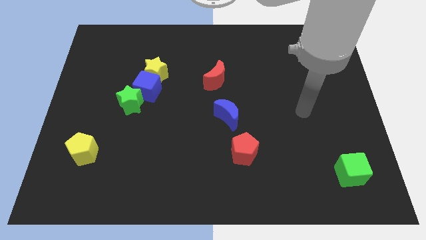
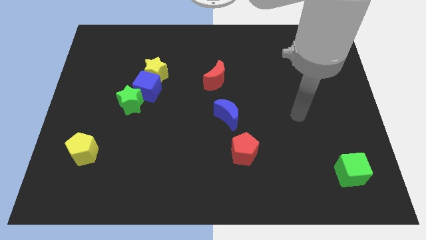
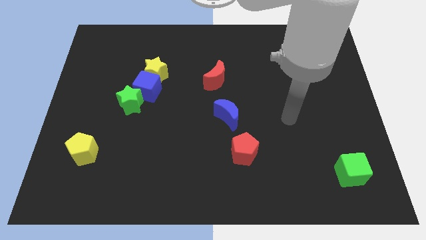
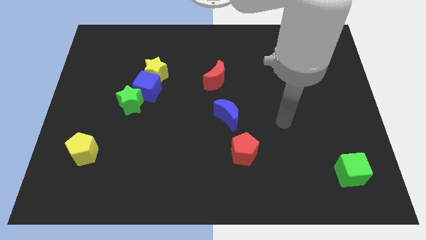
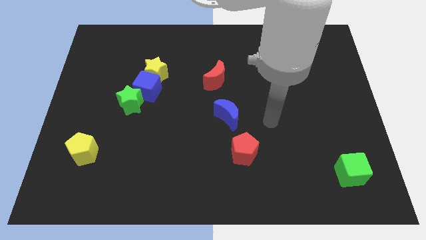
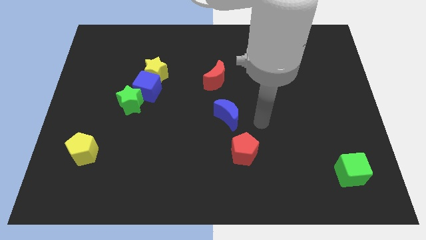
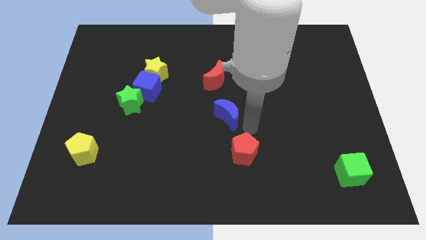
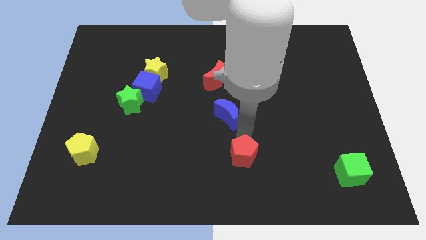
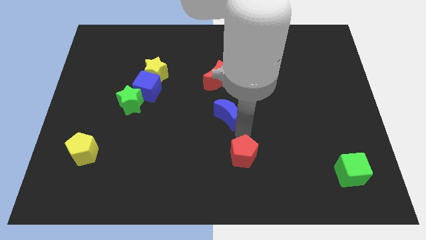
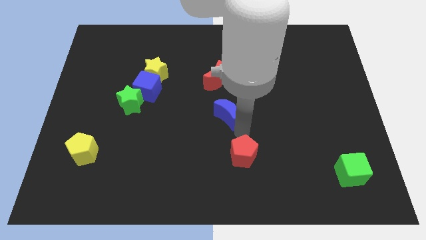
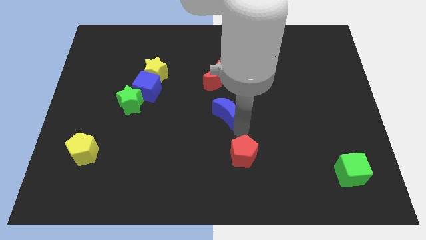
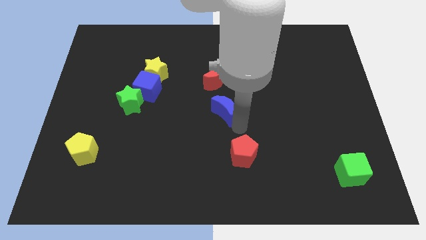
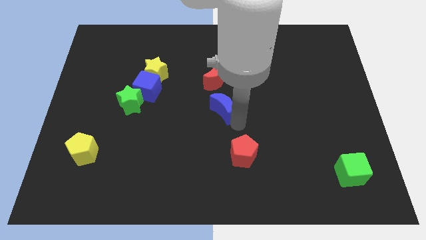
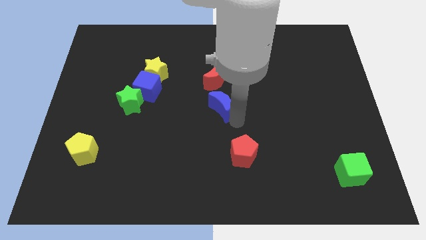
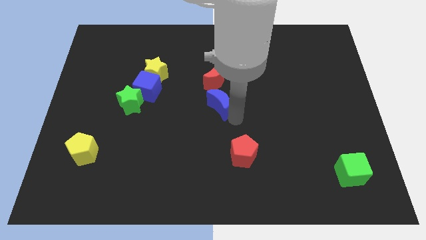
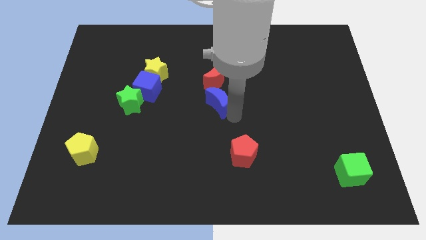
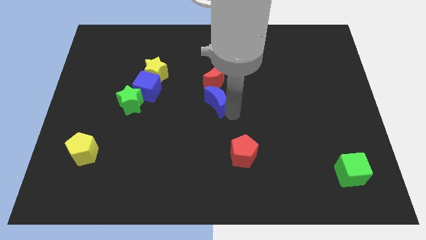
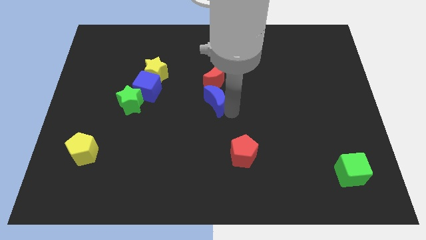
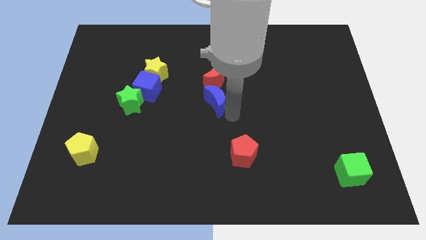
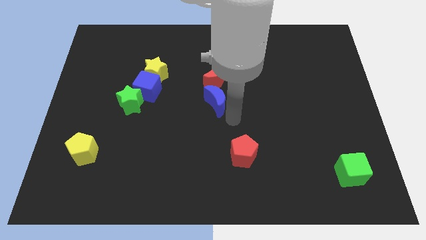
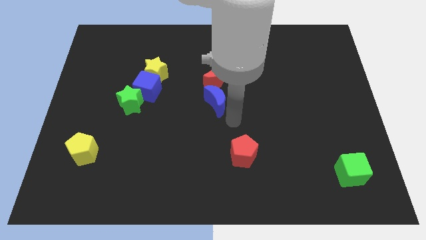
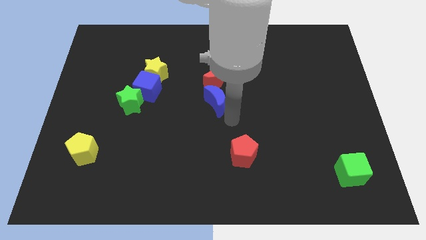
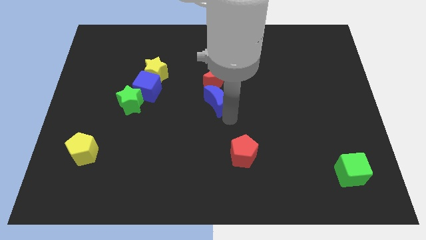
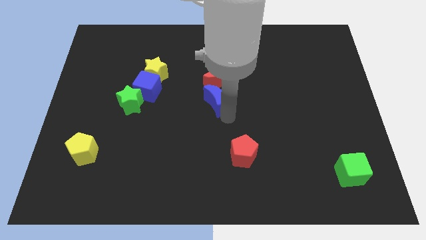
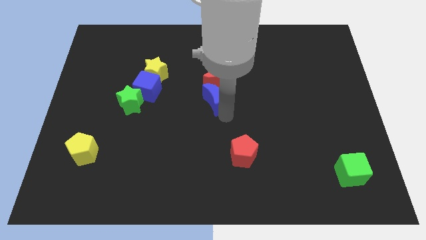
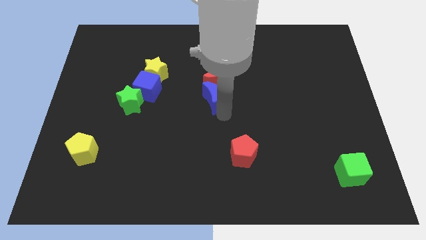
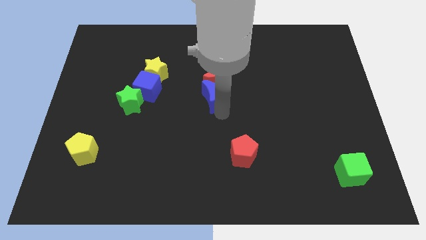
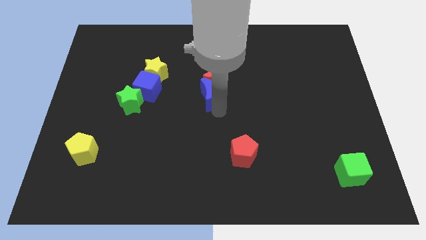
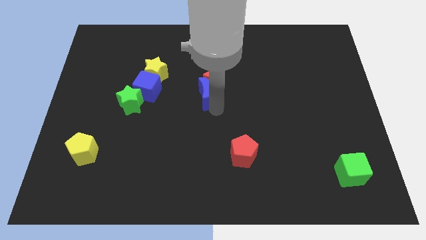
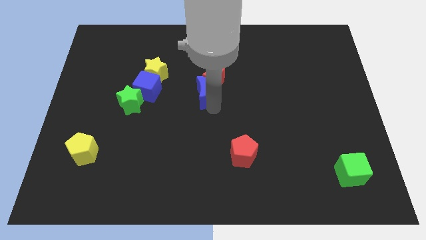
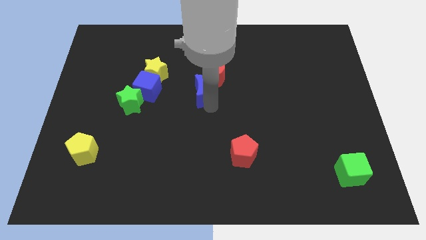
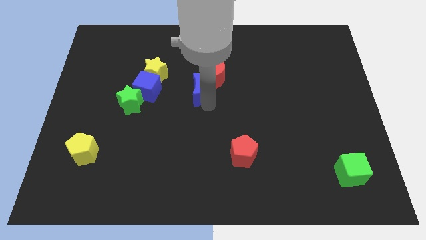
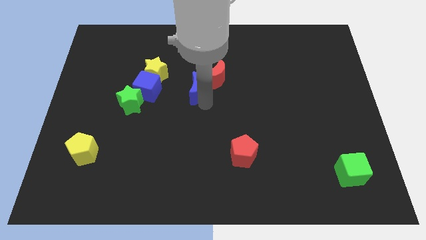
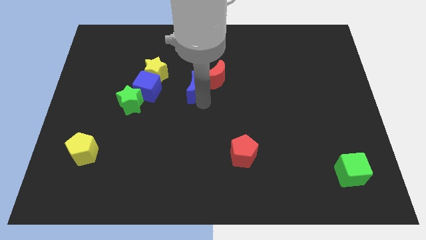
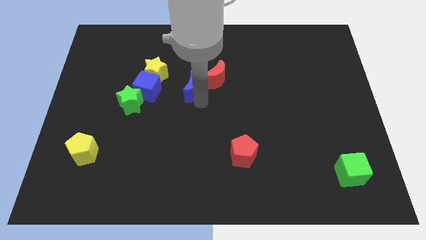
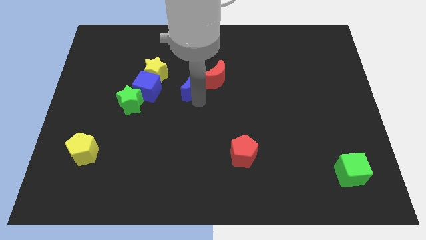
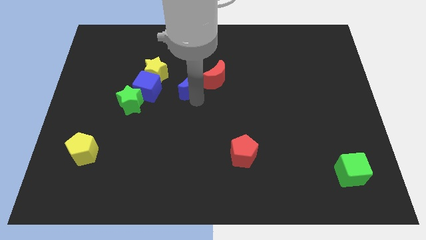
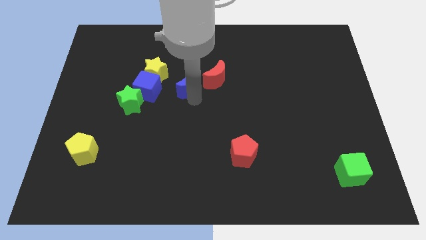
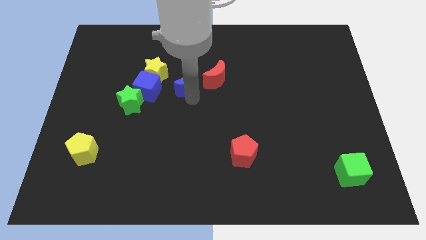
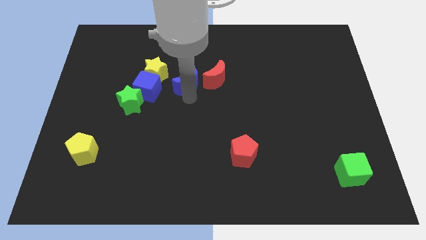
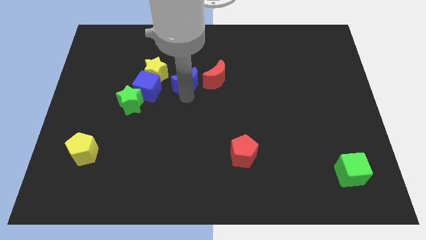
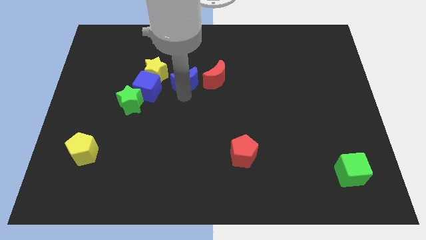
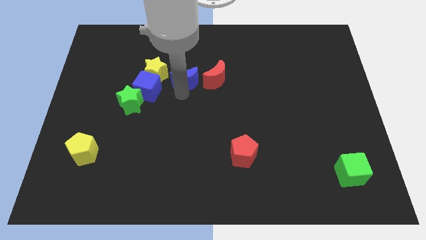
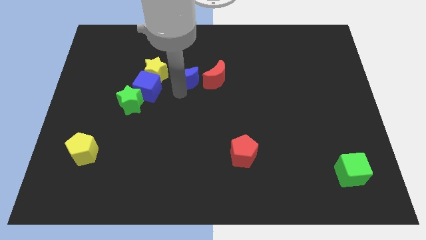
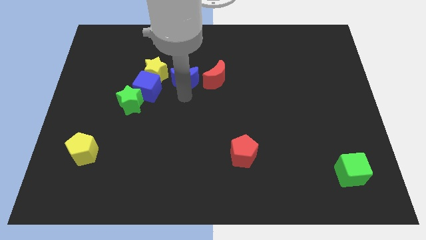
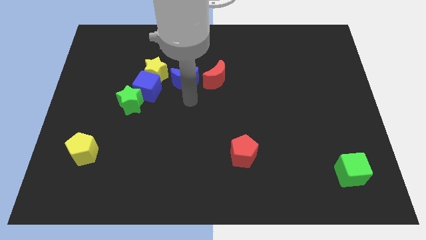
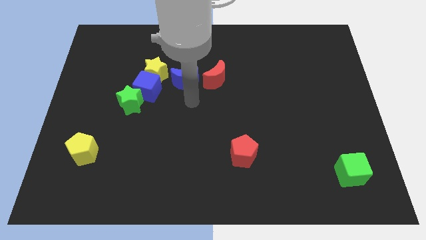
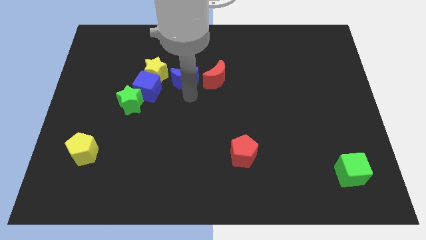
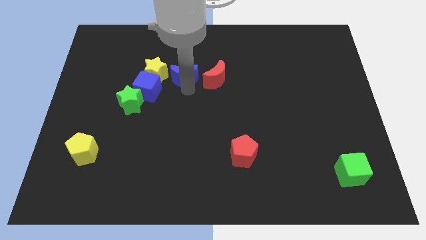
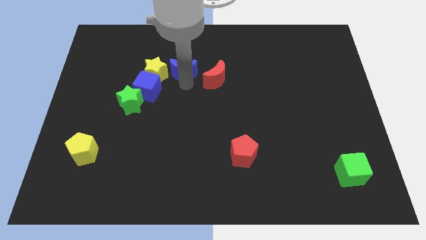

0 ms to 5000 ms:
push the blue moon diagonally up and to the right of the yellow star

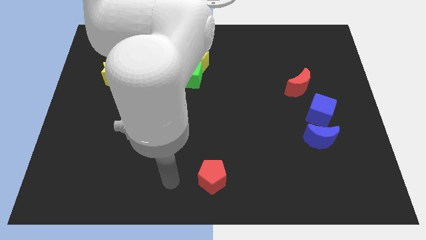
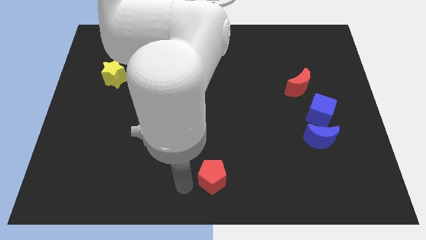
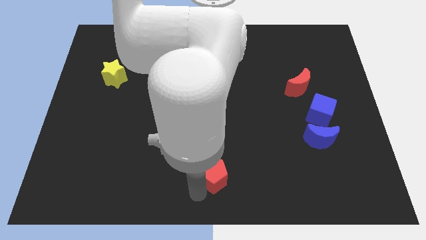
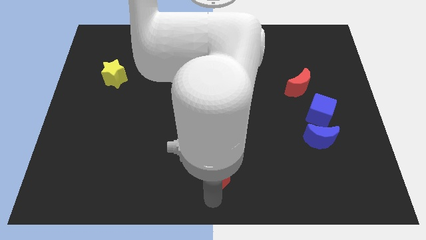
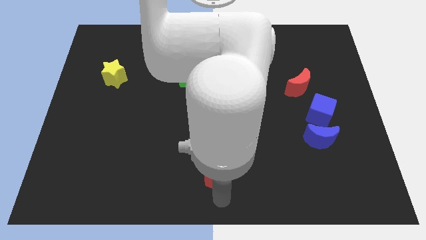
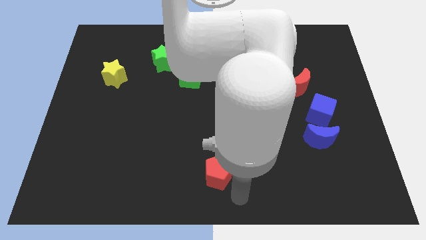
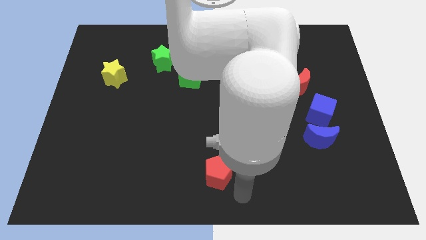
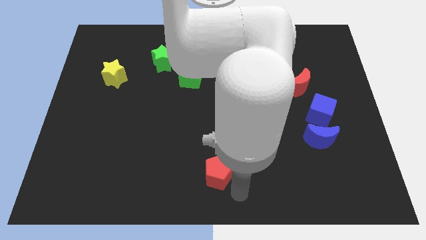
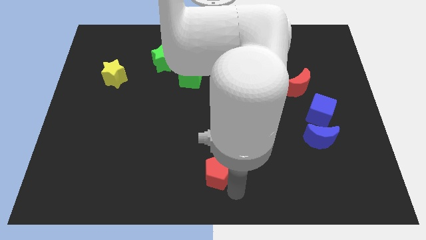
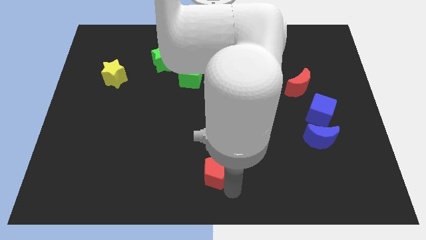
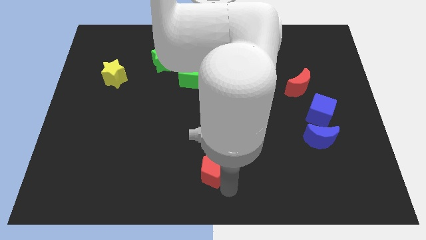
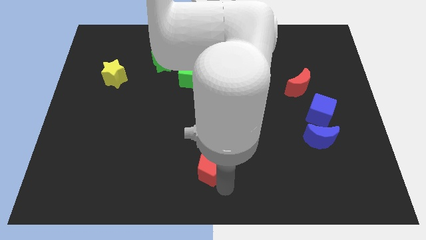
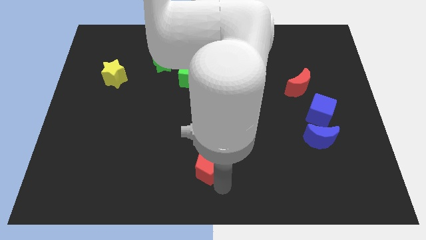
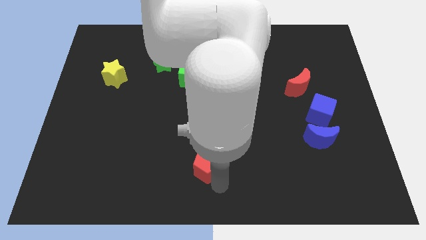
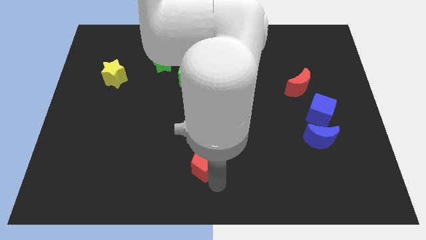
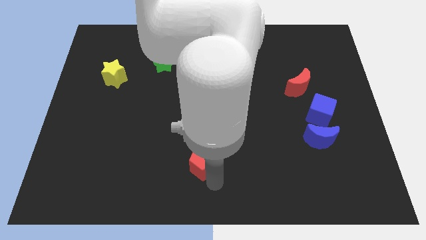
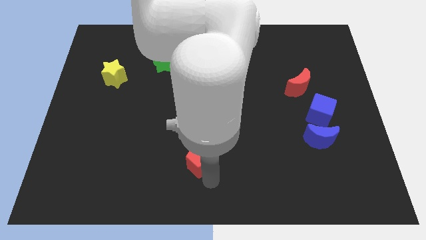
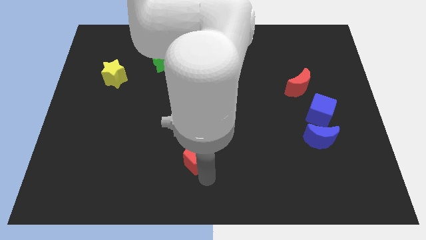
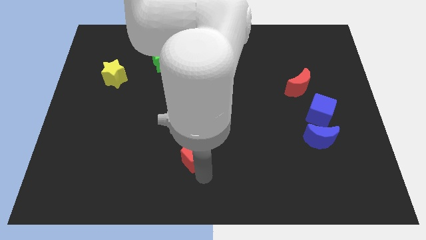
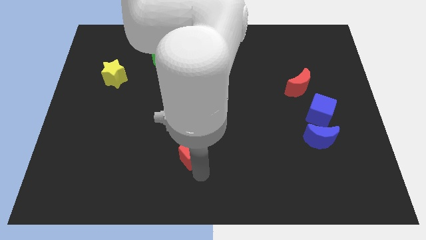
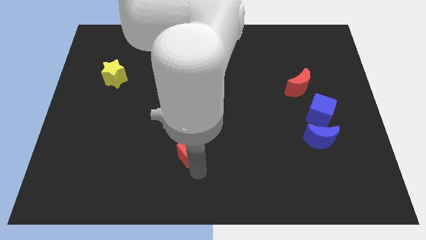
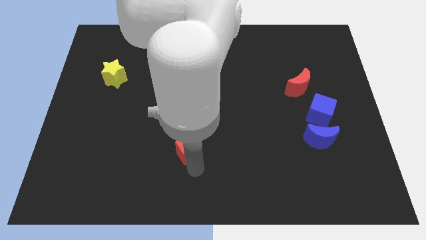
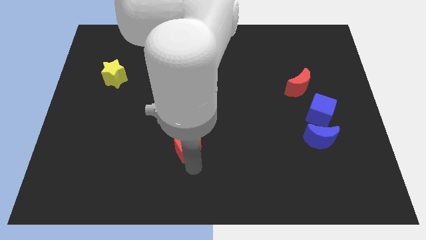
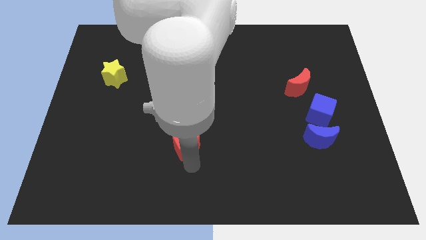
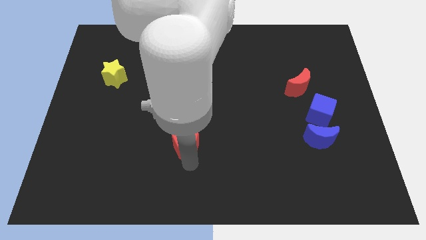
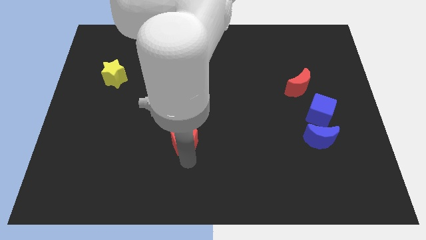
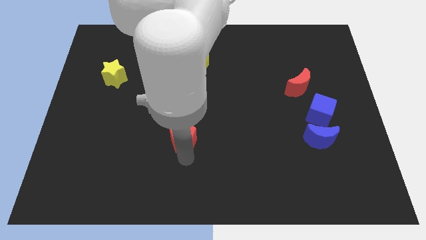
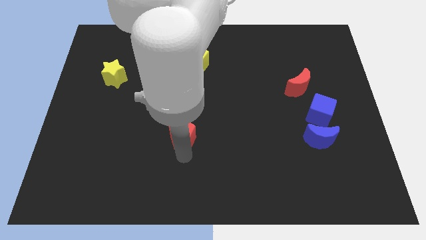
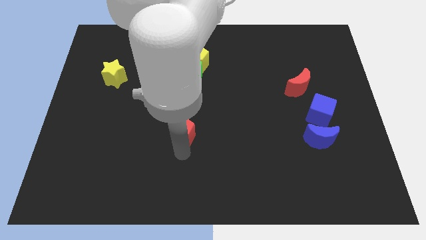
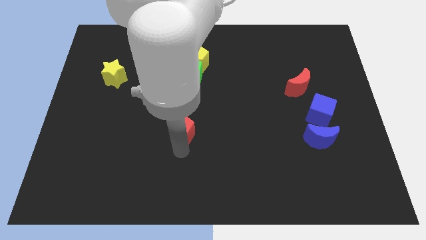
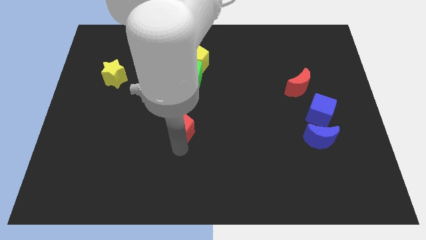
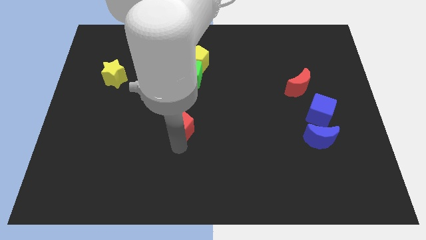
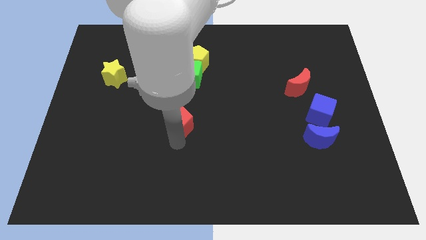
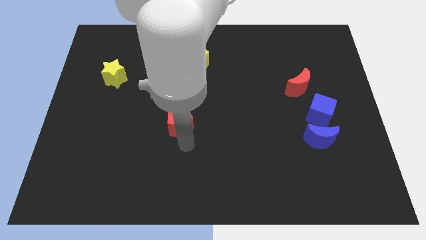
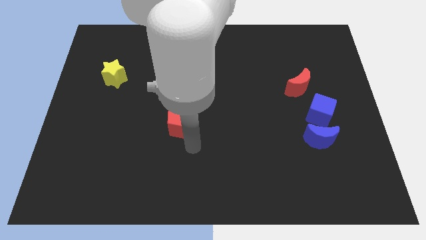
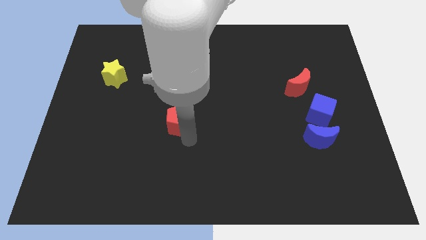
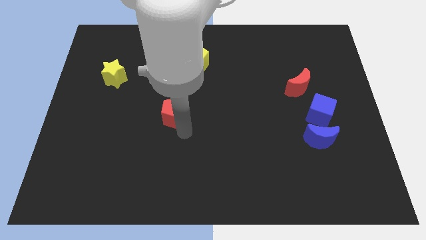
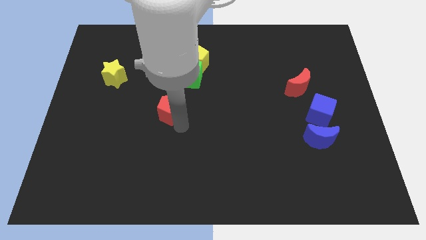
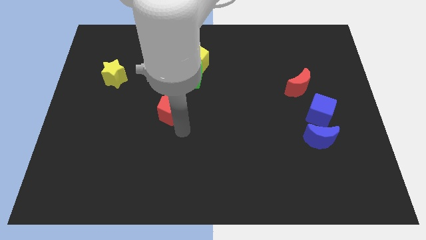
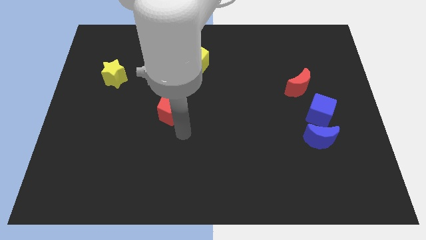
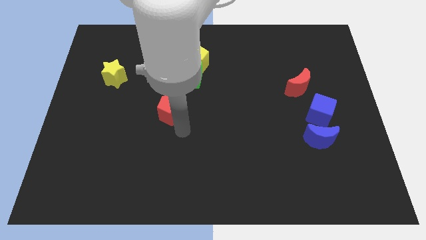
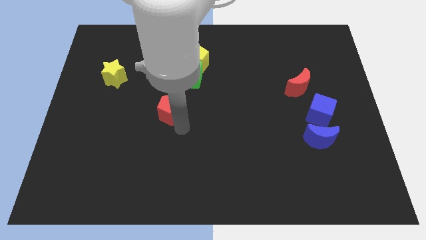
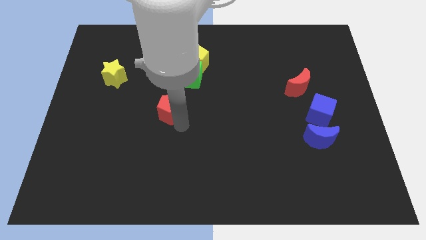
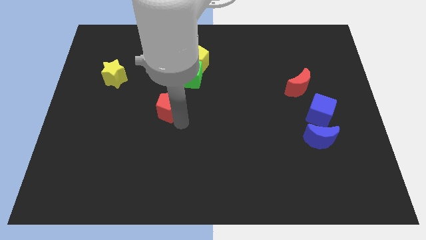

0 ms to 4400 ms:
slide the red pentagon to the bottom of the green star
